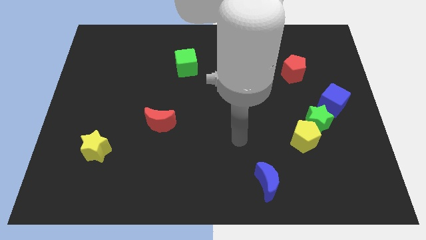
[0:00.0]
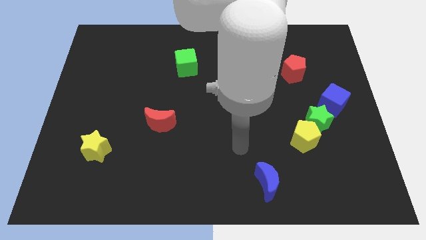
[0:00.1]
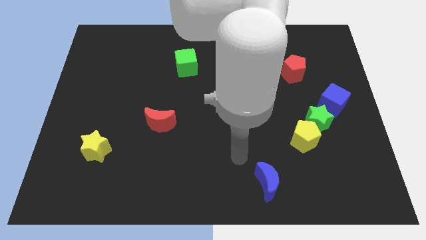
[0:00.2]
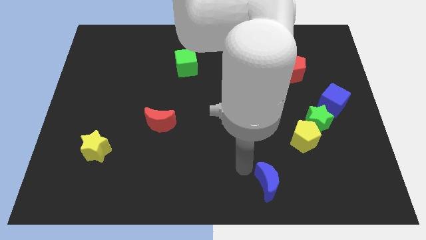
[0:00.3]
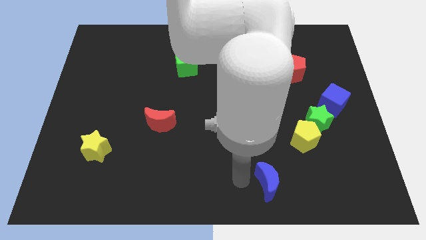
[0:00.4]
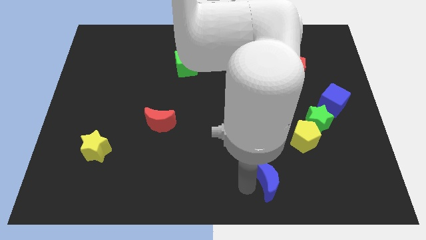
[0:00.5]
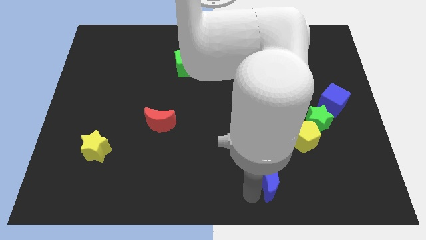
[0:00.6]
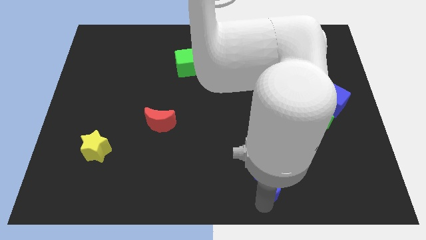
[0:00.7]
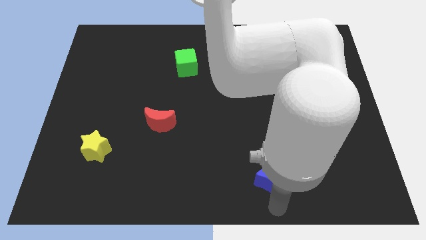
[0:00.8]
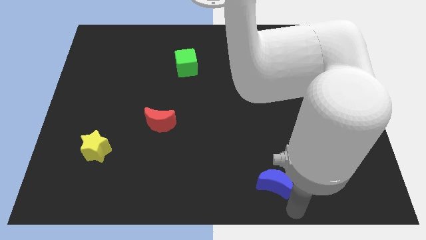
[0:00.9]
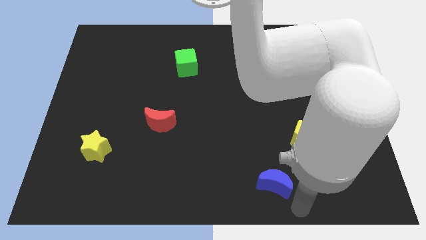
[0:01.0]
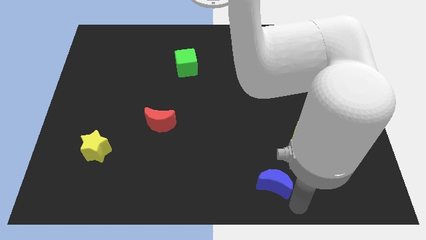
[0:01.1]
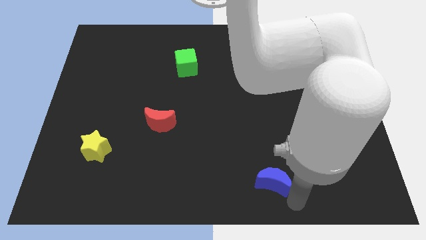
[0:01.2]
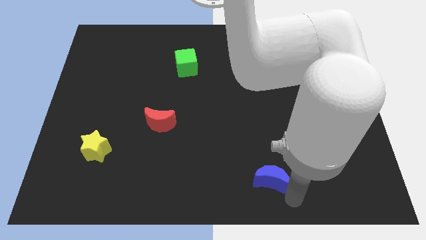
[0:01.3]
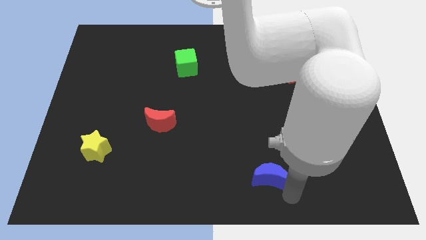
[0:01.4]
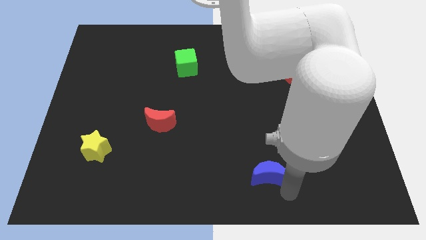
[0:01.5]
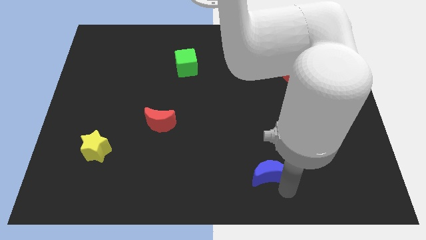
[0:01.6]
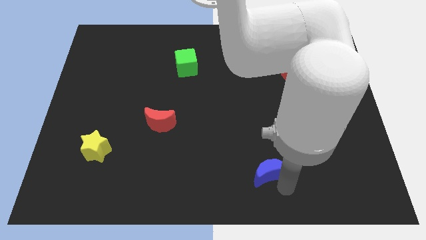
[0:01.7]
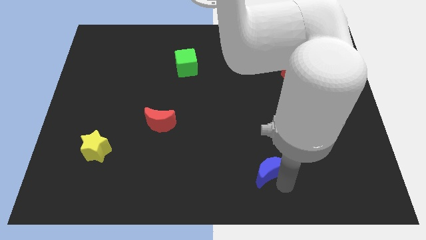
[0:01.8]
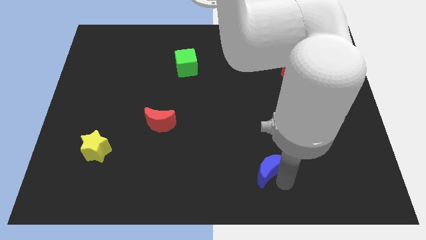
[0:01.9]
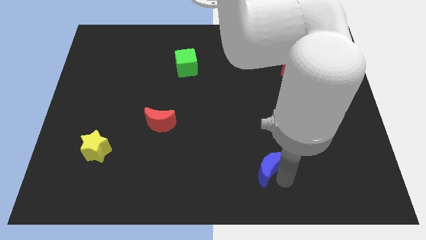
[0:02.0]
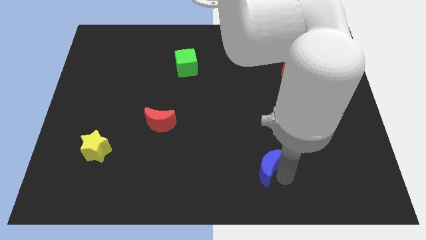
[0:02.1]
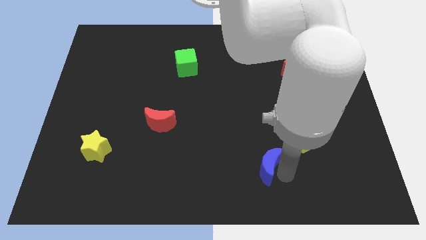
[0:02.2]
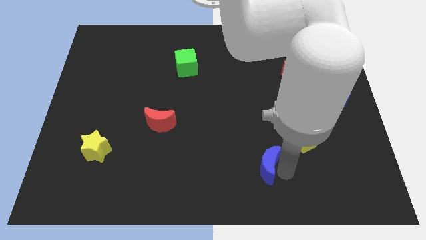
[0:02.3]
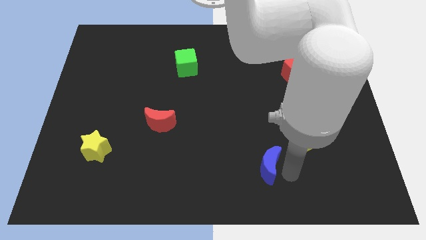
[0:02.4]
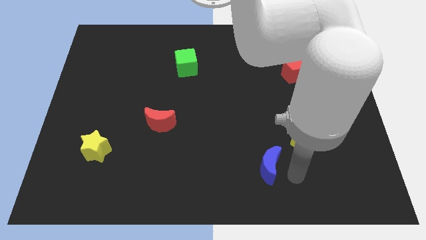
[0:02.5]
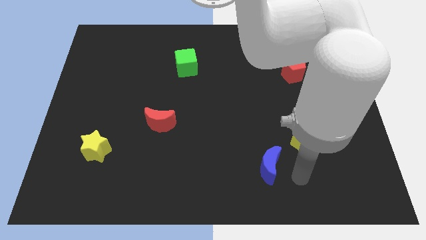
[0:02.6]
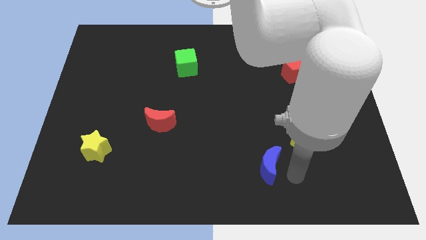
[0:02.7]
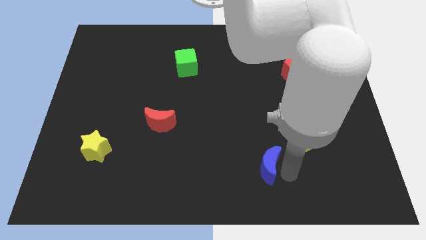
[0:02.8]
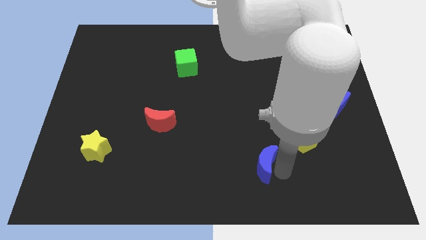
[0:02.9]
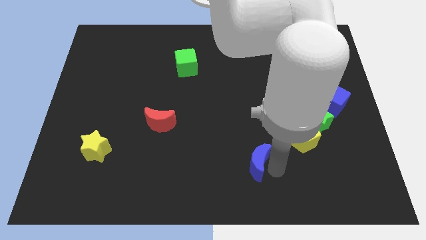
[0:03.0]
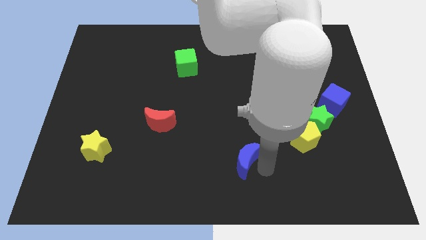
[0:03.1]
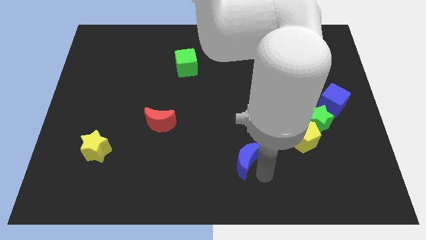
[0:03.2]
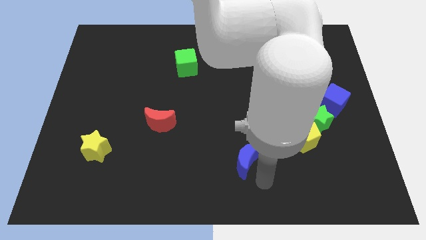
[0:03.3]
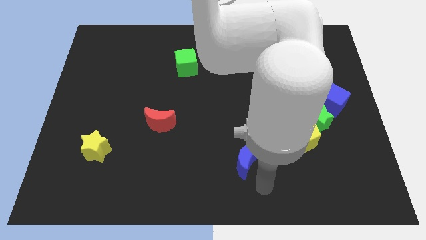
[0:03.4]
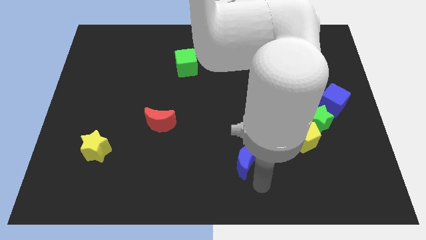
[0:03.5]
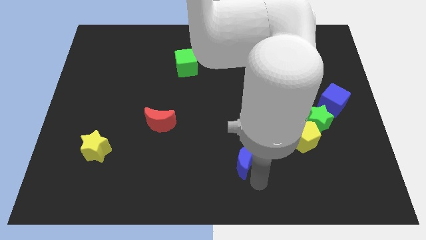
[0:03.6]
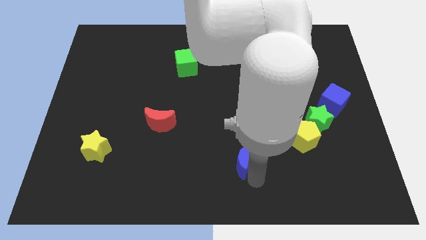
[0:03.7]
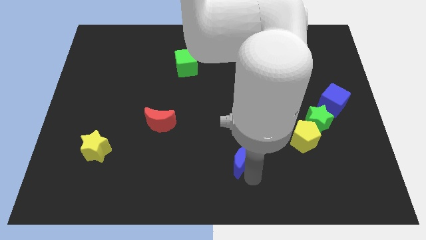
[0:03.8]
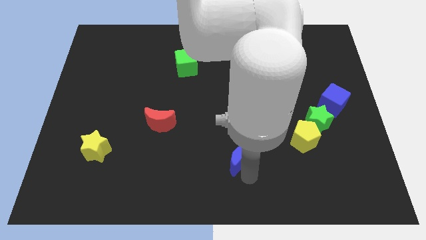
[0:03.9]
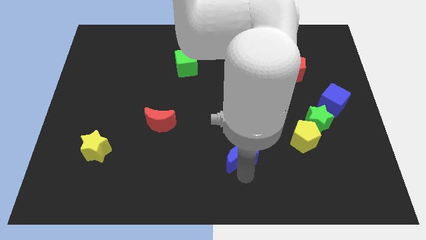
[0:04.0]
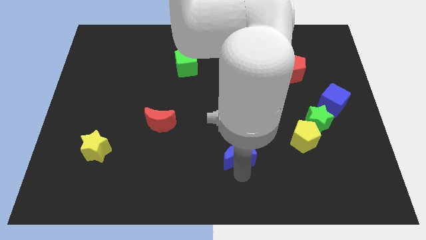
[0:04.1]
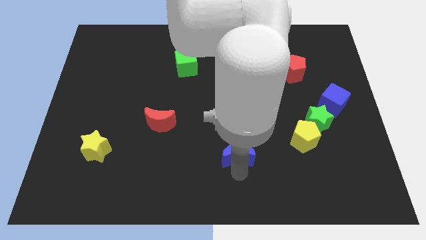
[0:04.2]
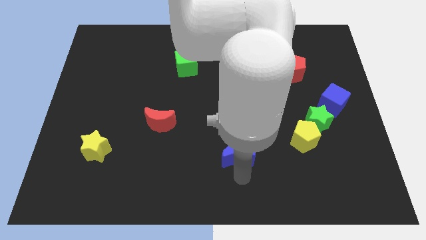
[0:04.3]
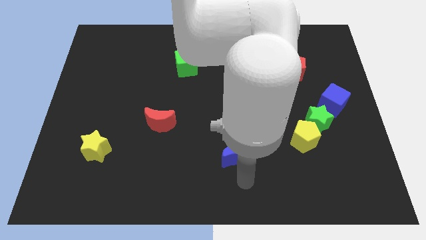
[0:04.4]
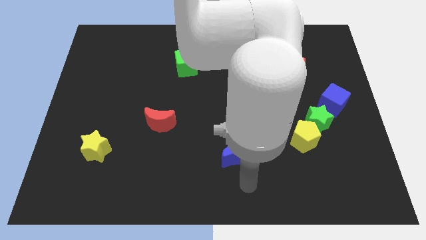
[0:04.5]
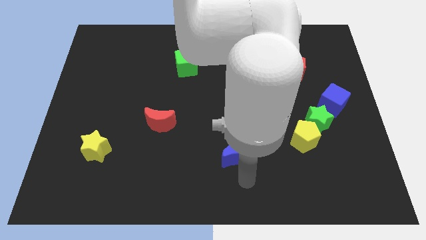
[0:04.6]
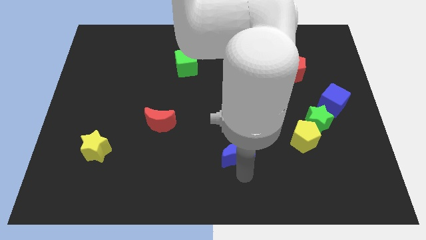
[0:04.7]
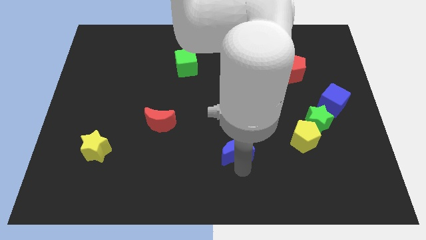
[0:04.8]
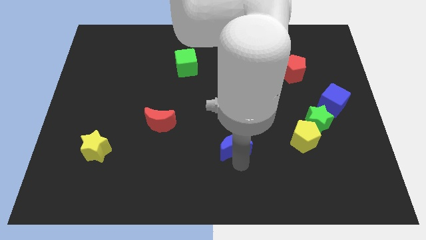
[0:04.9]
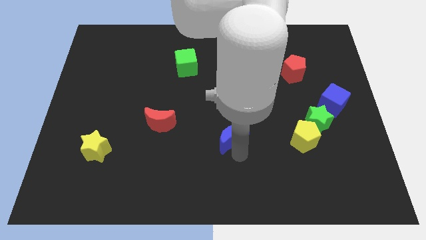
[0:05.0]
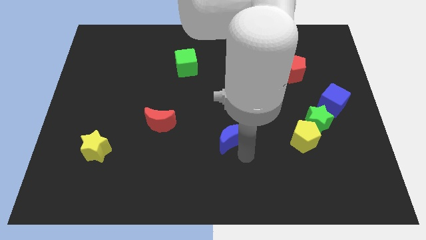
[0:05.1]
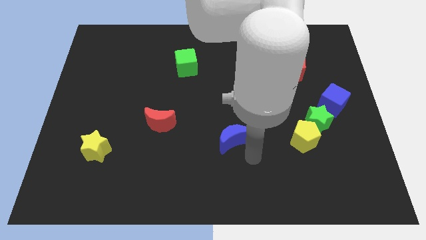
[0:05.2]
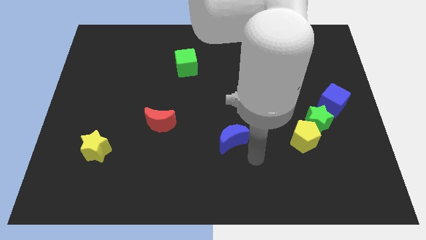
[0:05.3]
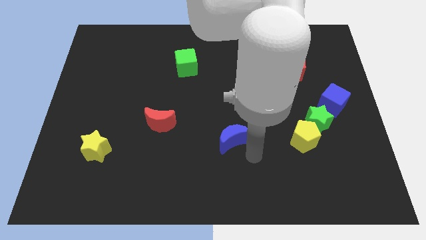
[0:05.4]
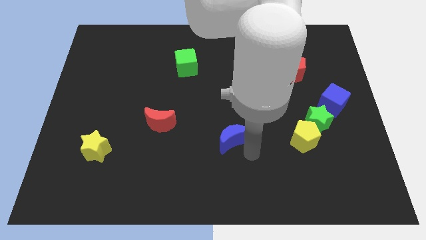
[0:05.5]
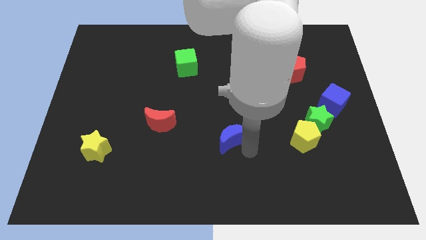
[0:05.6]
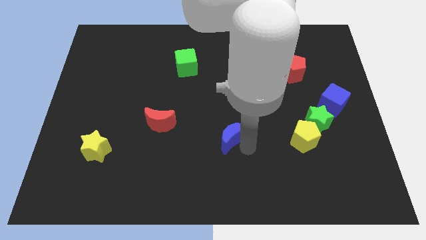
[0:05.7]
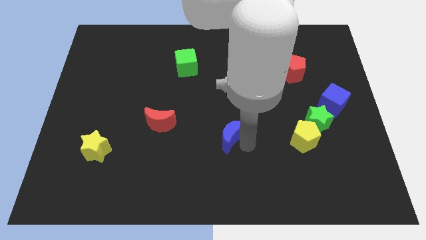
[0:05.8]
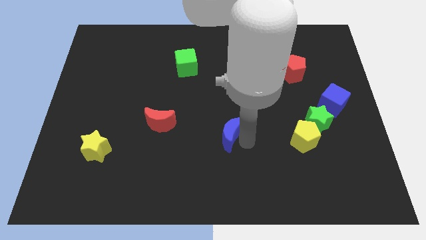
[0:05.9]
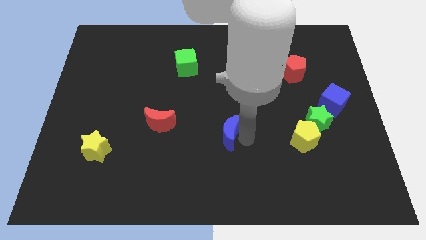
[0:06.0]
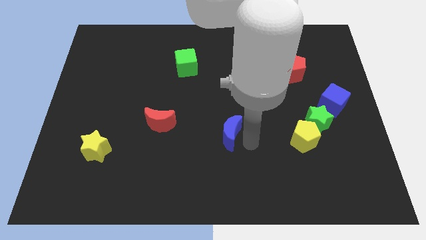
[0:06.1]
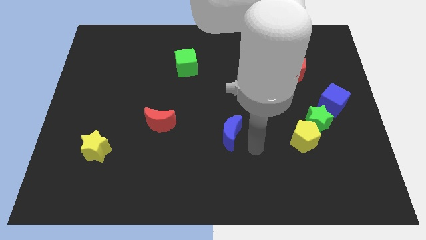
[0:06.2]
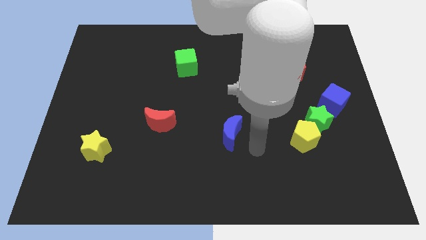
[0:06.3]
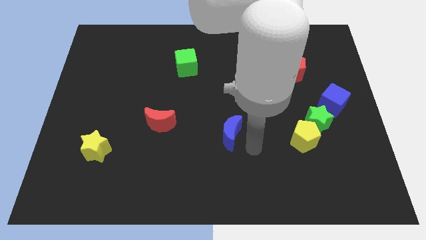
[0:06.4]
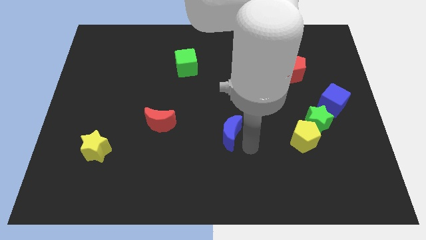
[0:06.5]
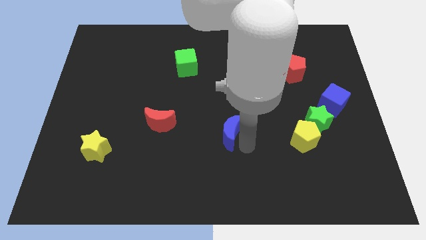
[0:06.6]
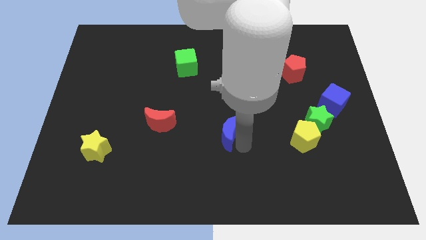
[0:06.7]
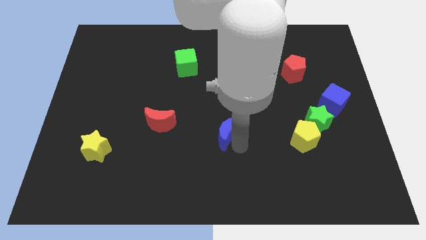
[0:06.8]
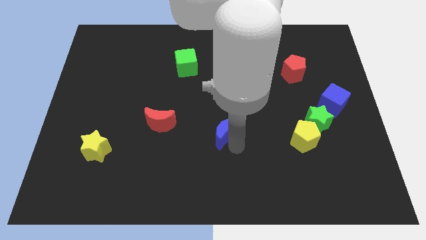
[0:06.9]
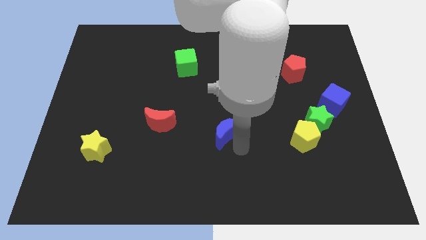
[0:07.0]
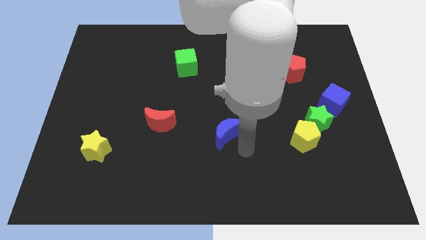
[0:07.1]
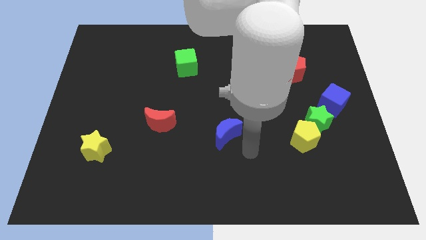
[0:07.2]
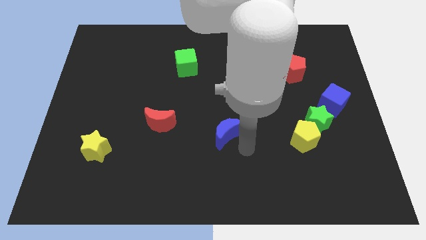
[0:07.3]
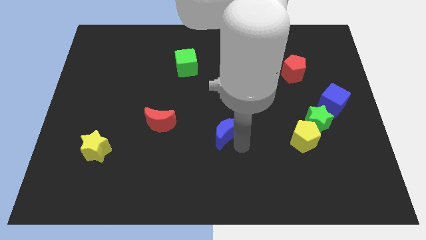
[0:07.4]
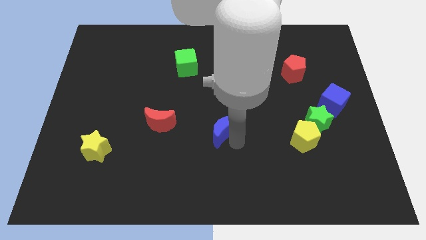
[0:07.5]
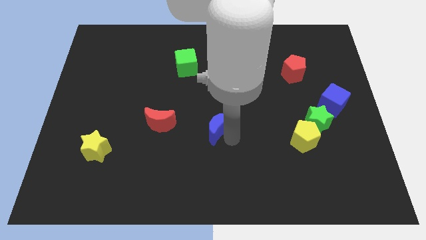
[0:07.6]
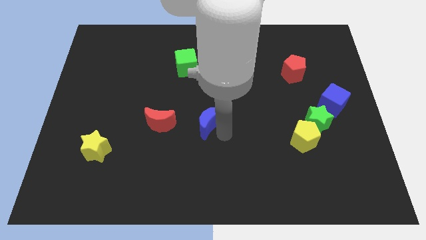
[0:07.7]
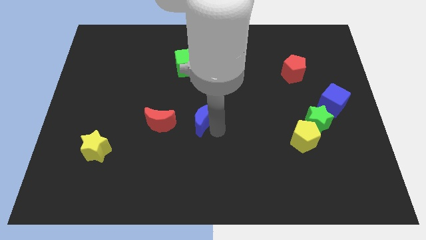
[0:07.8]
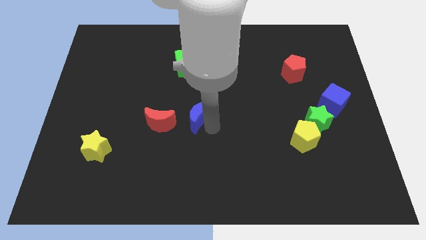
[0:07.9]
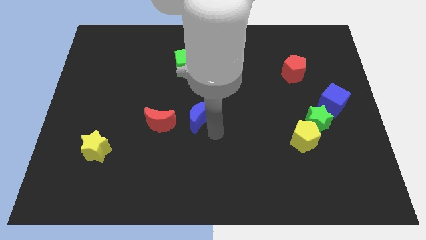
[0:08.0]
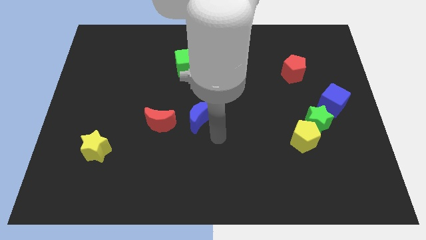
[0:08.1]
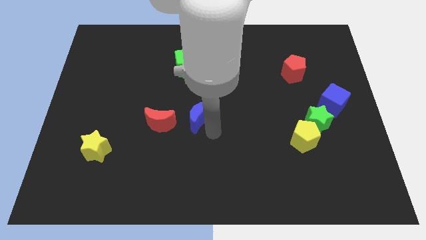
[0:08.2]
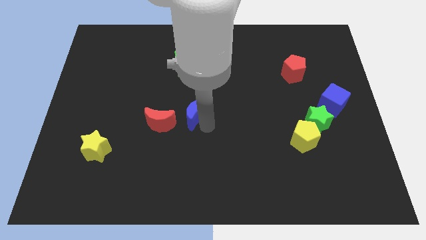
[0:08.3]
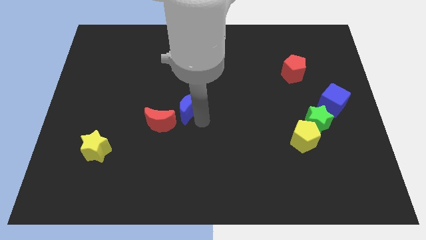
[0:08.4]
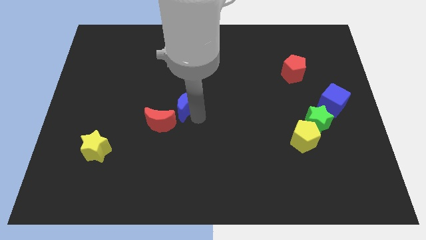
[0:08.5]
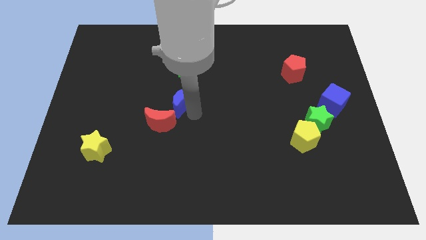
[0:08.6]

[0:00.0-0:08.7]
put the blue moon to the top side of the red moon
